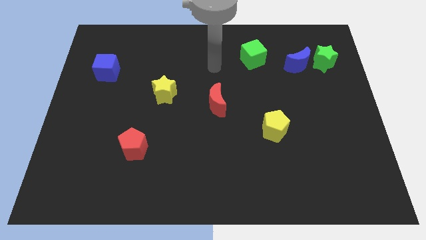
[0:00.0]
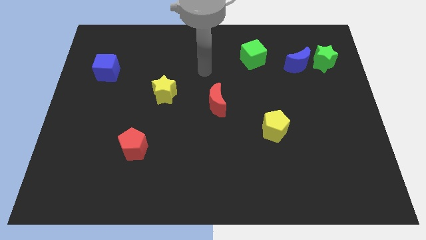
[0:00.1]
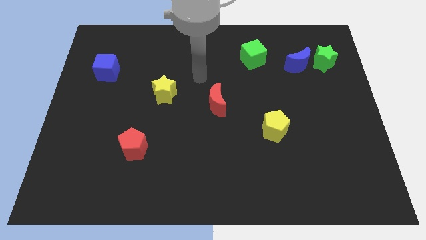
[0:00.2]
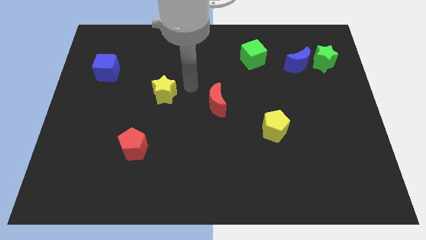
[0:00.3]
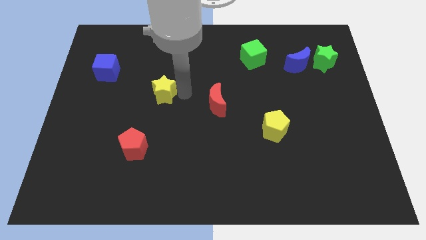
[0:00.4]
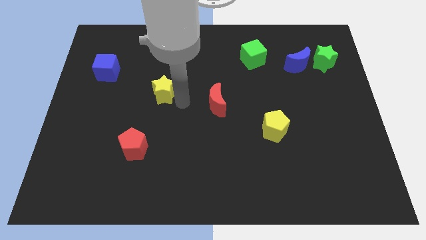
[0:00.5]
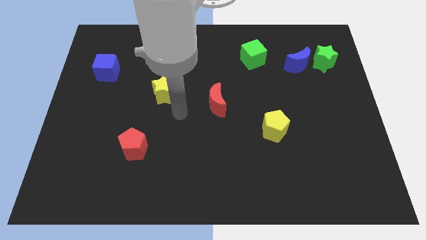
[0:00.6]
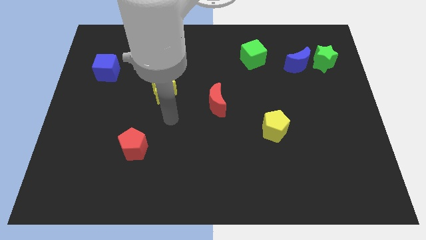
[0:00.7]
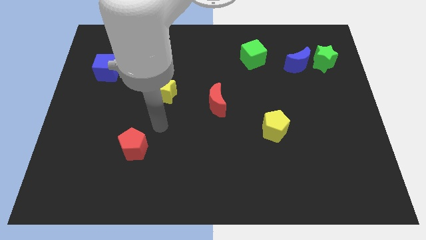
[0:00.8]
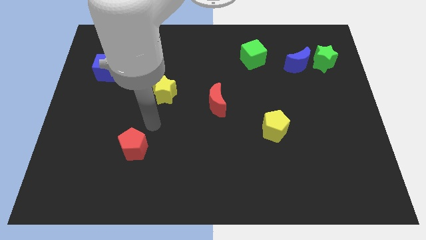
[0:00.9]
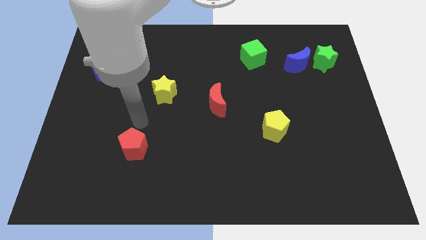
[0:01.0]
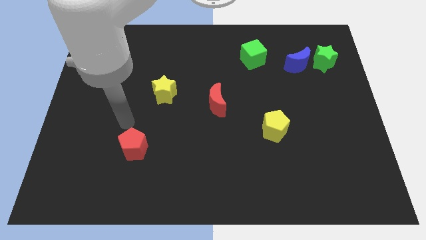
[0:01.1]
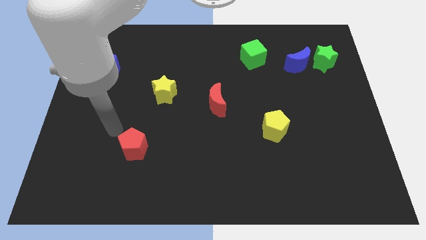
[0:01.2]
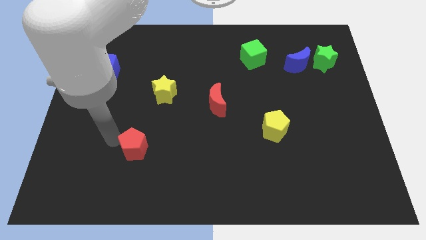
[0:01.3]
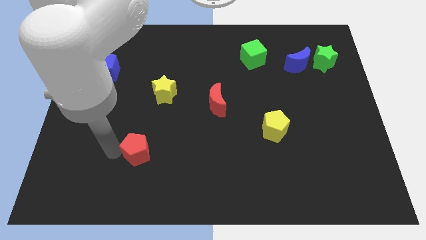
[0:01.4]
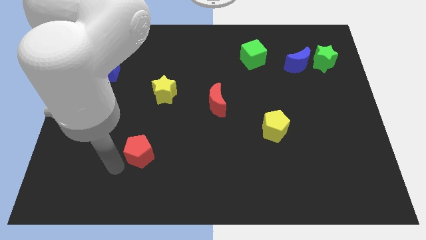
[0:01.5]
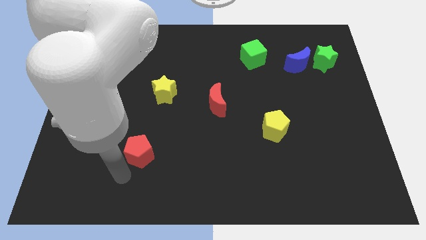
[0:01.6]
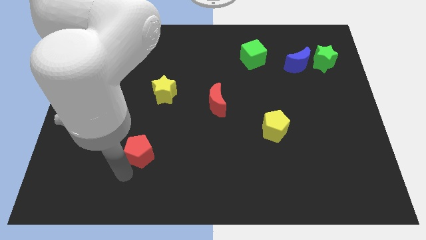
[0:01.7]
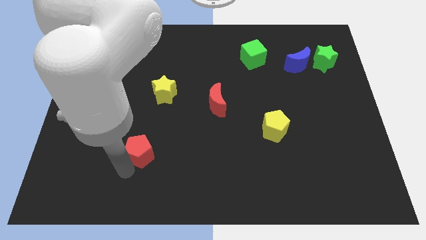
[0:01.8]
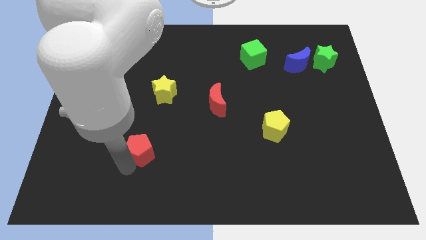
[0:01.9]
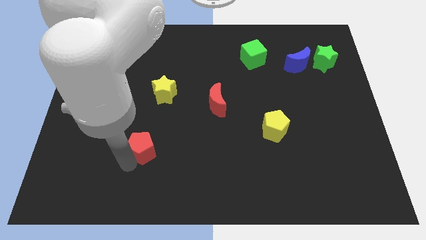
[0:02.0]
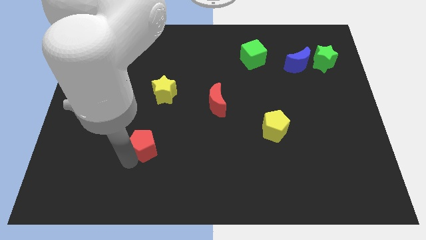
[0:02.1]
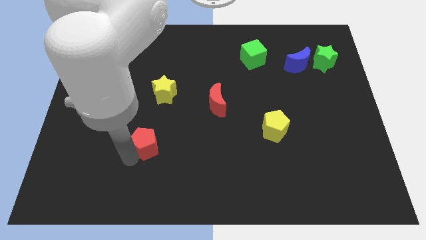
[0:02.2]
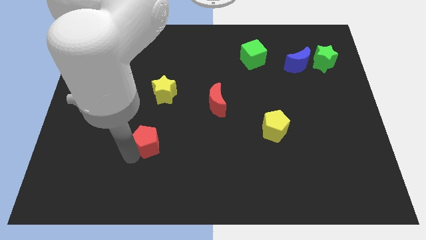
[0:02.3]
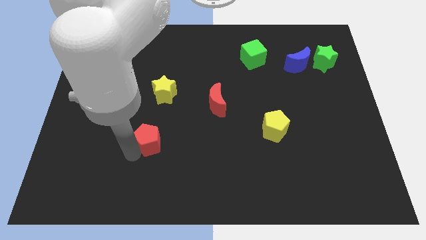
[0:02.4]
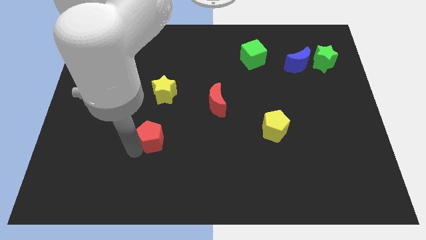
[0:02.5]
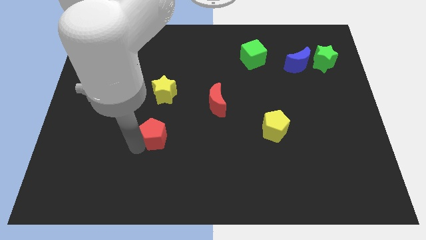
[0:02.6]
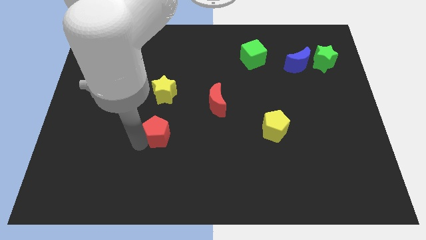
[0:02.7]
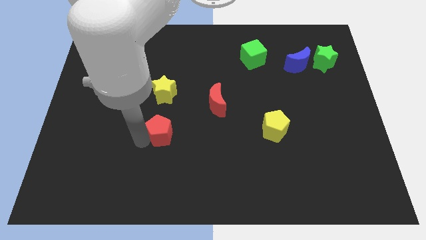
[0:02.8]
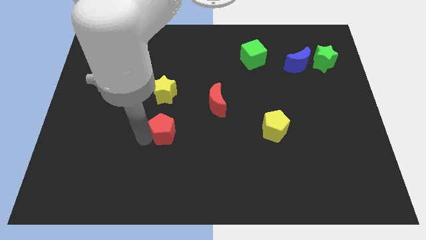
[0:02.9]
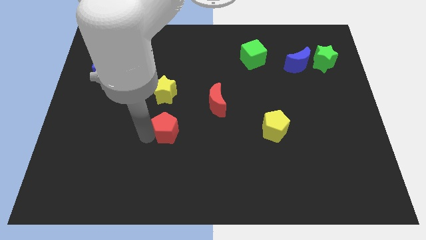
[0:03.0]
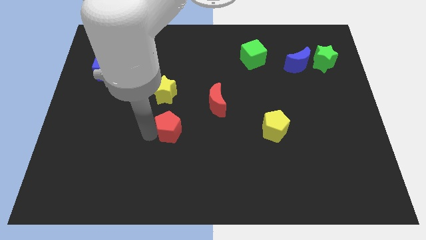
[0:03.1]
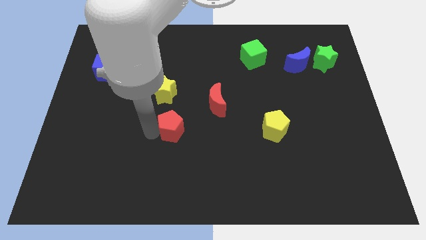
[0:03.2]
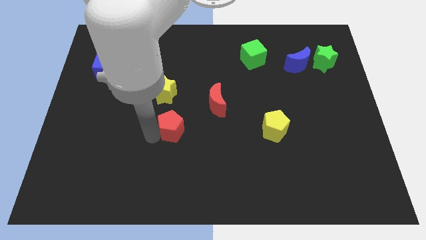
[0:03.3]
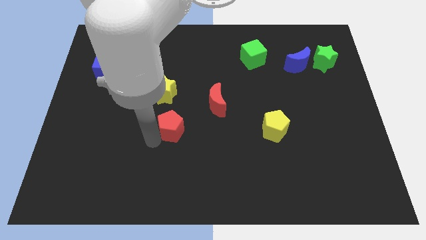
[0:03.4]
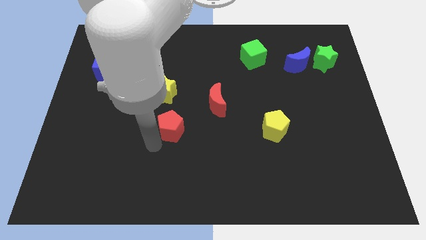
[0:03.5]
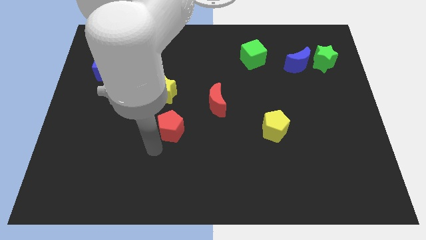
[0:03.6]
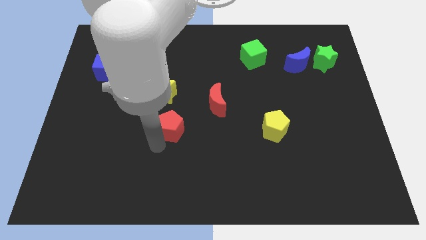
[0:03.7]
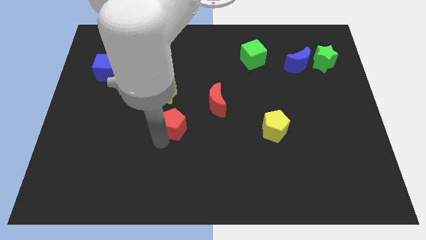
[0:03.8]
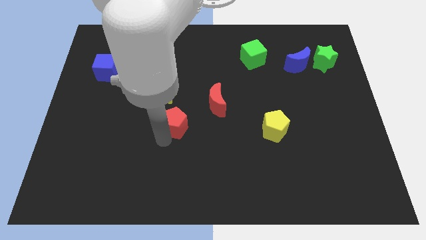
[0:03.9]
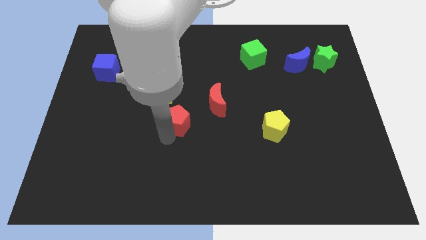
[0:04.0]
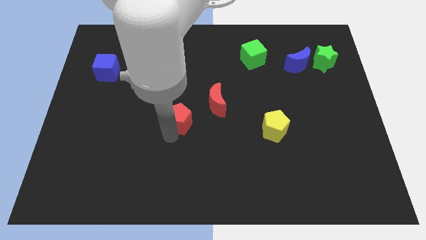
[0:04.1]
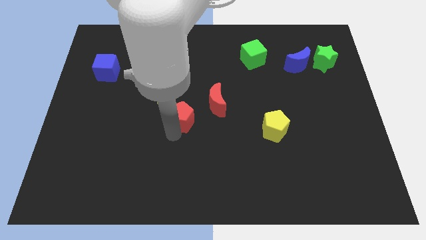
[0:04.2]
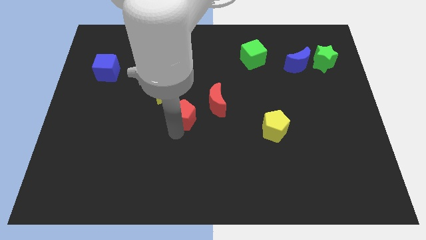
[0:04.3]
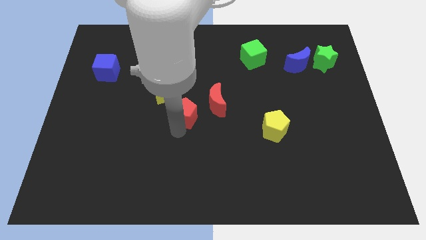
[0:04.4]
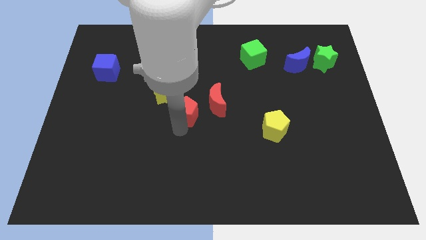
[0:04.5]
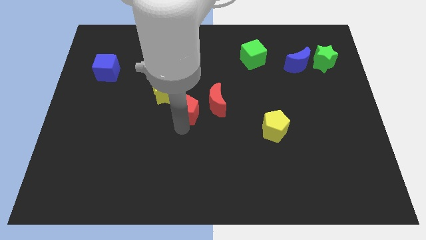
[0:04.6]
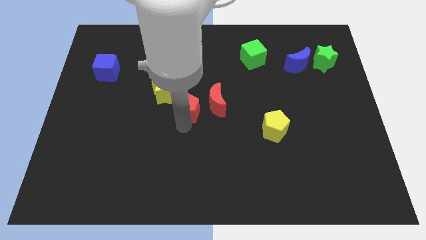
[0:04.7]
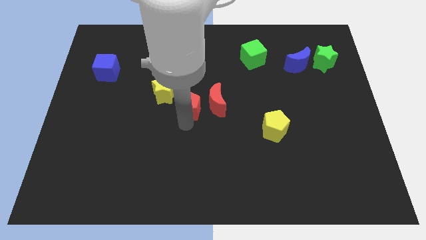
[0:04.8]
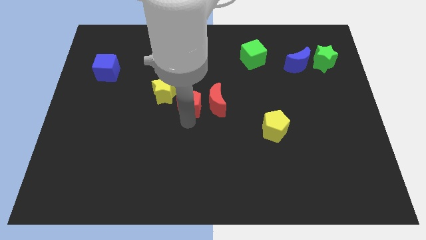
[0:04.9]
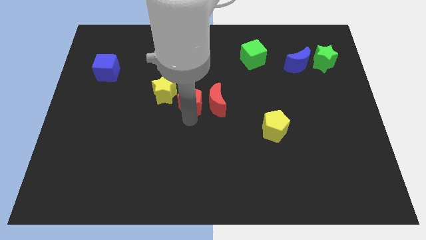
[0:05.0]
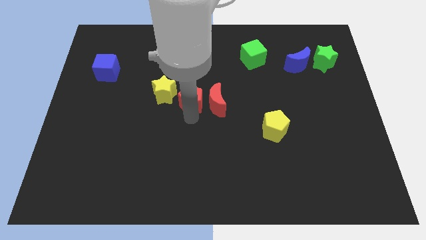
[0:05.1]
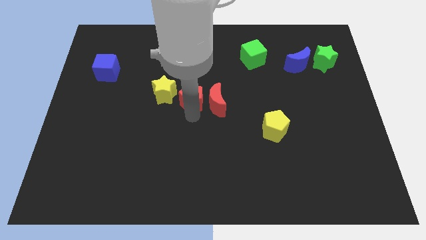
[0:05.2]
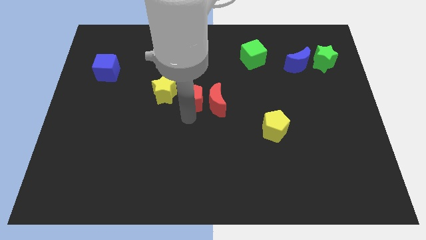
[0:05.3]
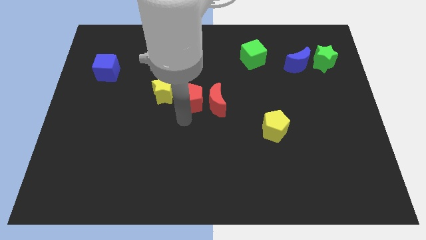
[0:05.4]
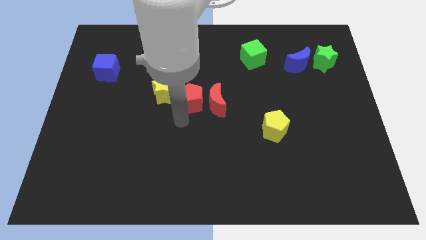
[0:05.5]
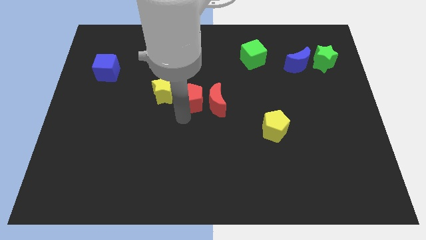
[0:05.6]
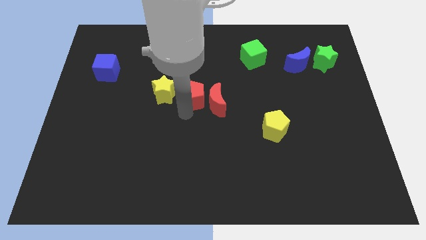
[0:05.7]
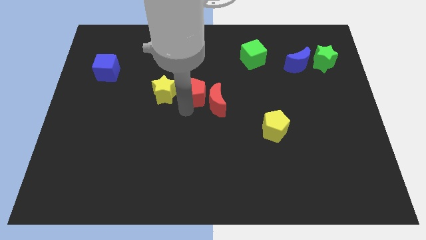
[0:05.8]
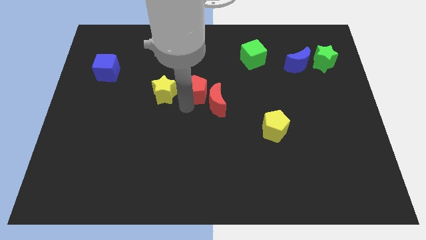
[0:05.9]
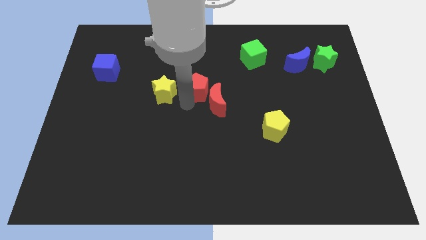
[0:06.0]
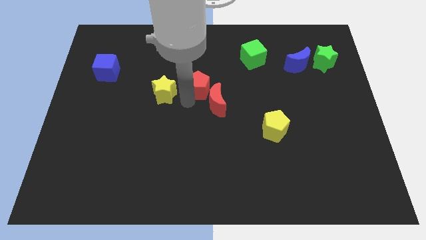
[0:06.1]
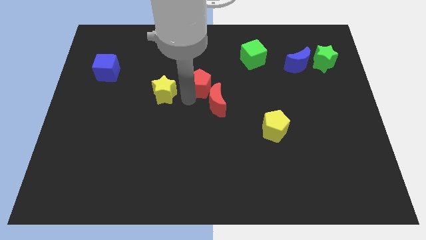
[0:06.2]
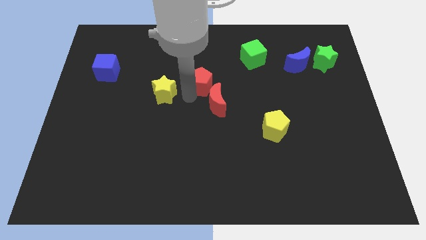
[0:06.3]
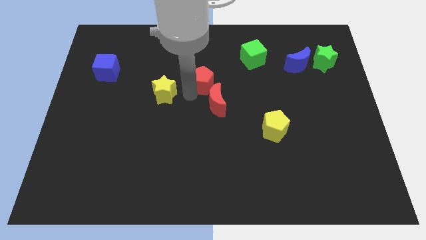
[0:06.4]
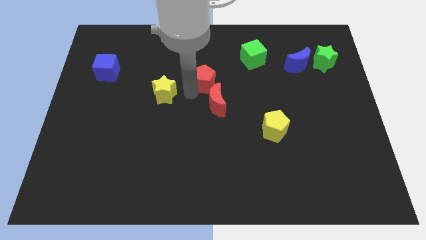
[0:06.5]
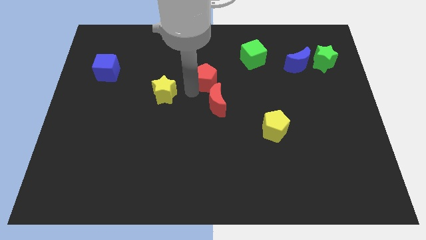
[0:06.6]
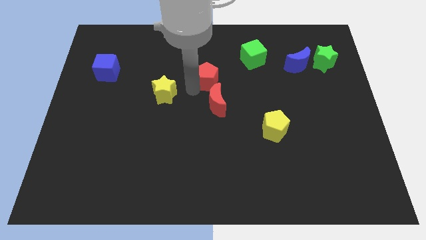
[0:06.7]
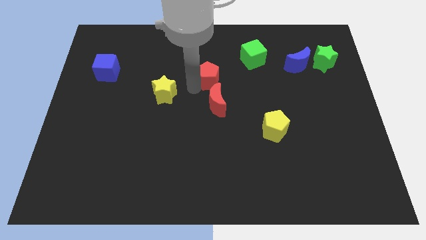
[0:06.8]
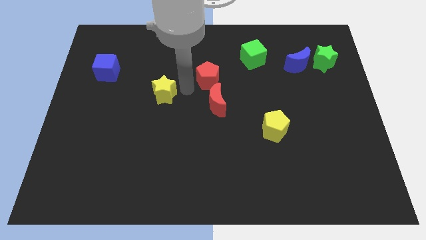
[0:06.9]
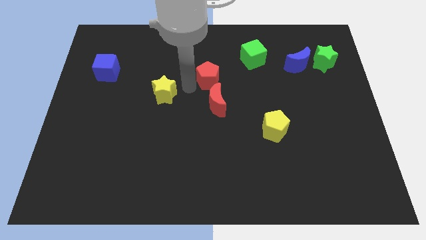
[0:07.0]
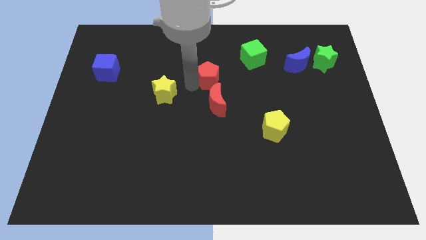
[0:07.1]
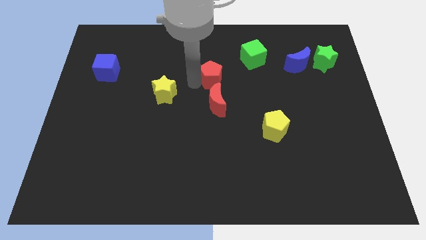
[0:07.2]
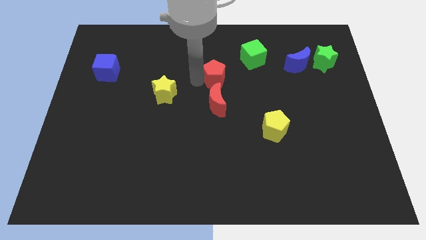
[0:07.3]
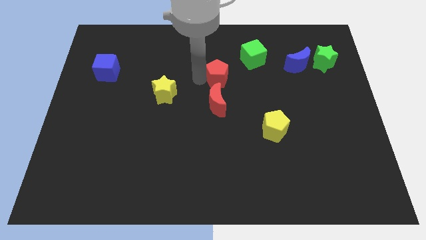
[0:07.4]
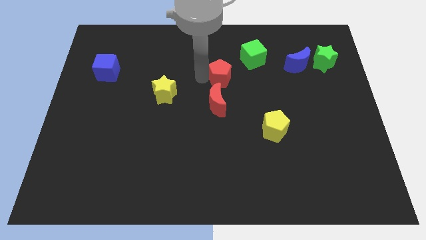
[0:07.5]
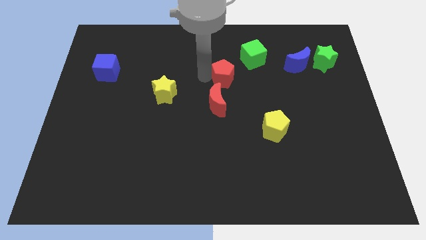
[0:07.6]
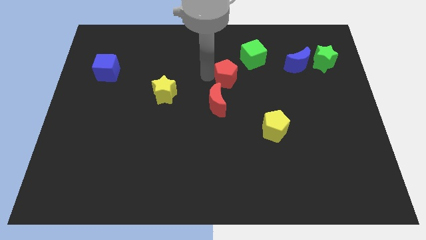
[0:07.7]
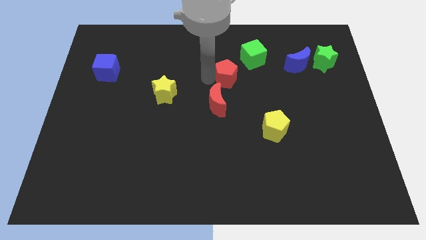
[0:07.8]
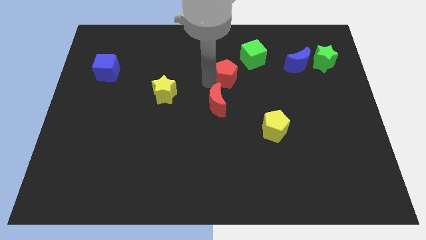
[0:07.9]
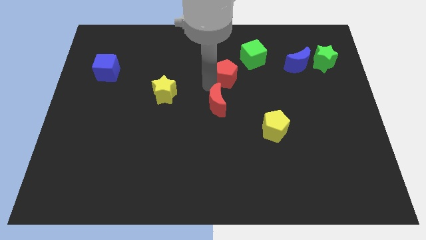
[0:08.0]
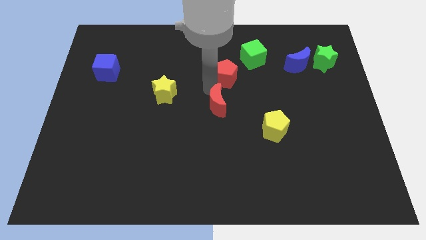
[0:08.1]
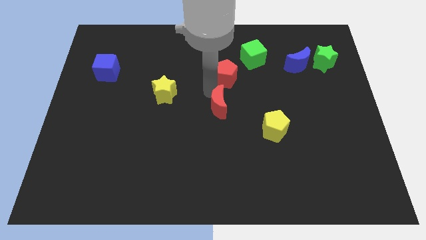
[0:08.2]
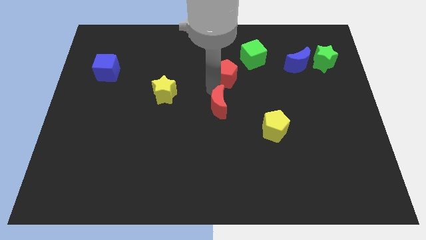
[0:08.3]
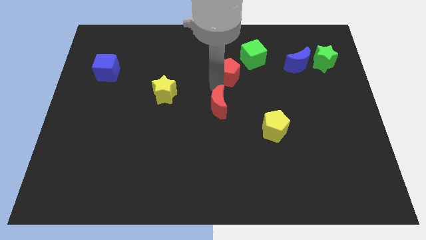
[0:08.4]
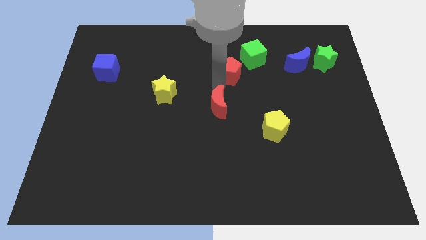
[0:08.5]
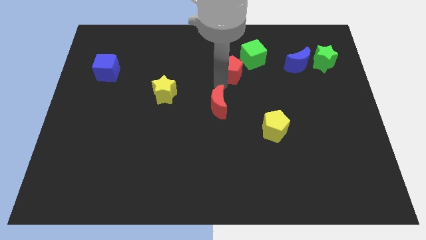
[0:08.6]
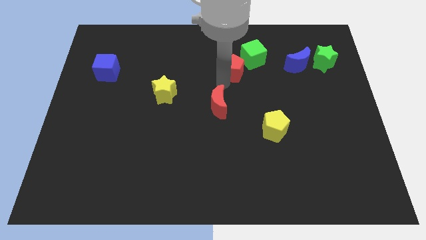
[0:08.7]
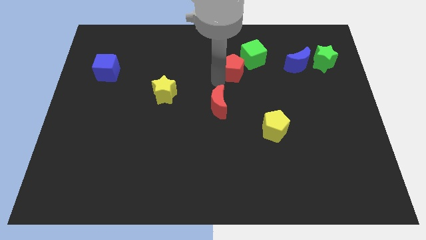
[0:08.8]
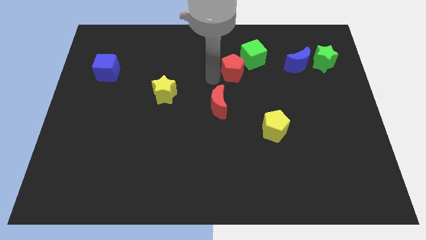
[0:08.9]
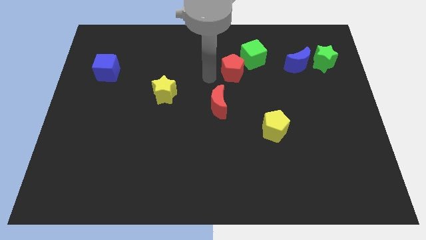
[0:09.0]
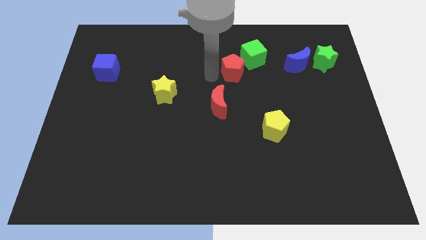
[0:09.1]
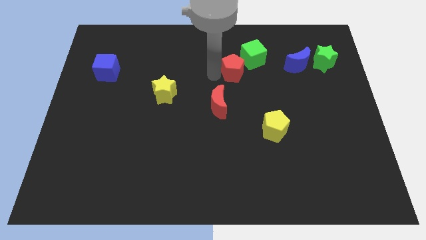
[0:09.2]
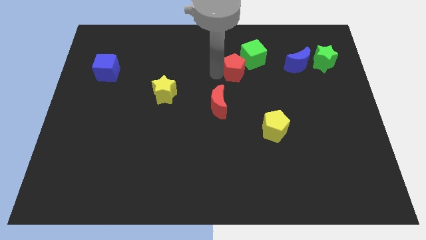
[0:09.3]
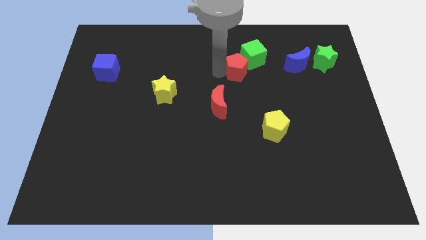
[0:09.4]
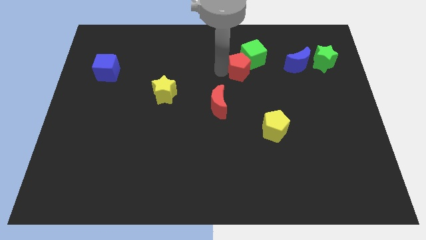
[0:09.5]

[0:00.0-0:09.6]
put the red pentagon to the left of the blue moon
